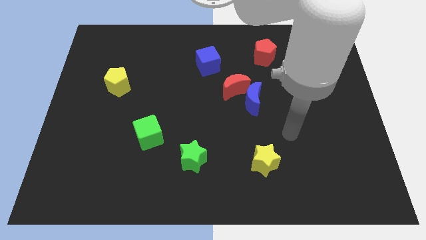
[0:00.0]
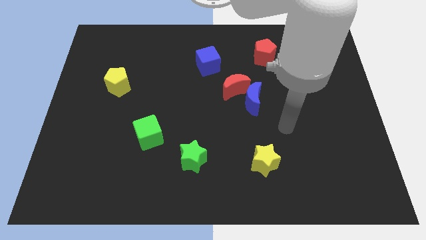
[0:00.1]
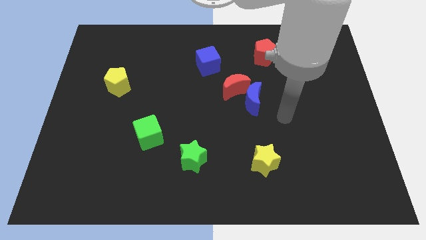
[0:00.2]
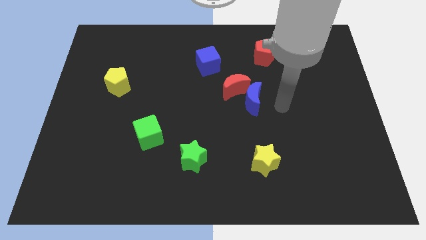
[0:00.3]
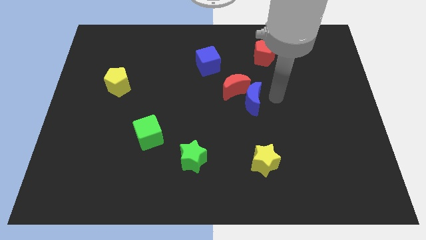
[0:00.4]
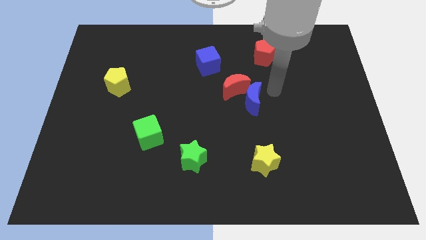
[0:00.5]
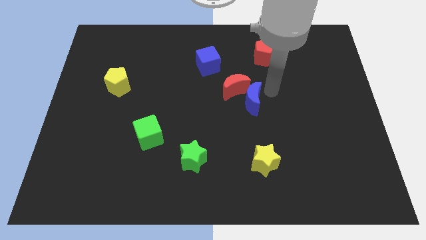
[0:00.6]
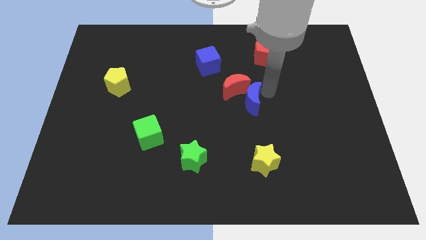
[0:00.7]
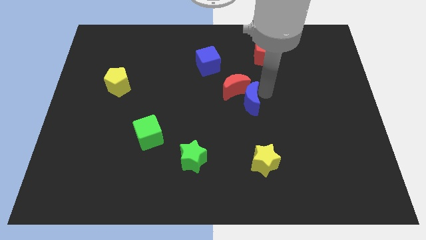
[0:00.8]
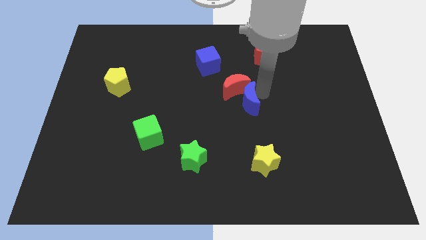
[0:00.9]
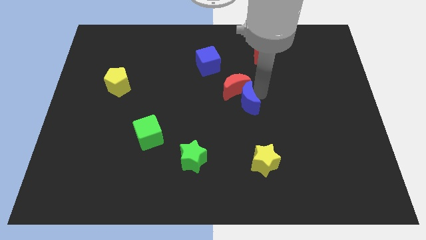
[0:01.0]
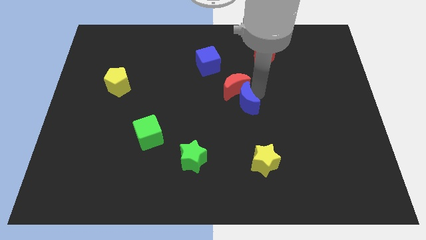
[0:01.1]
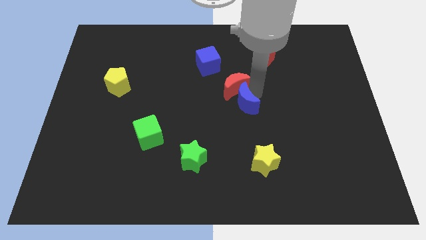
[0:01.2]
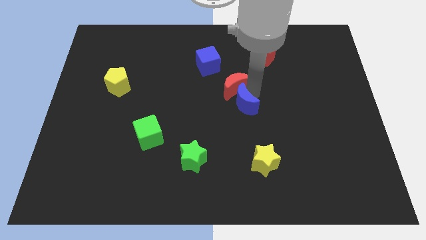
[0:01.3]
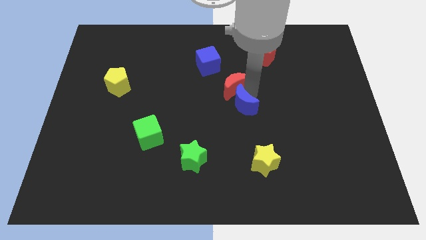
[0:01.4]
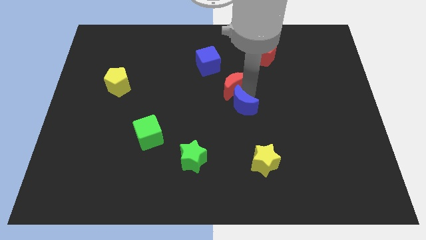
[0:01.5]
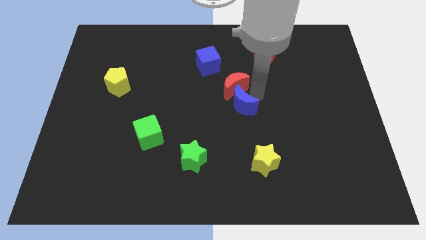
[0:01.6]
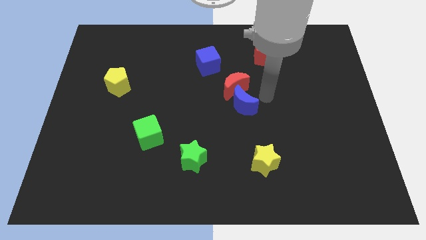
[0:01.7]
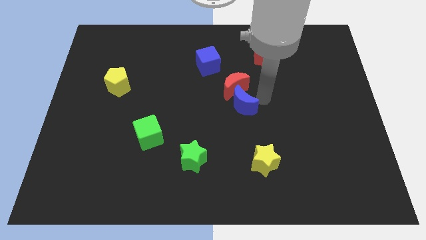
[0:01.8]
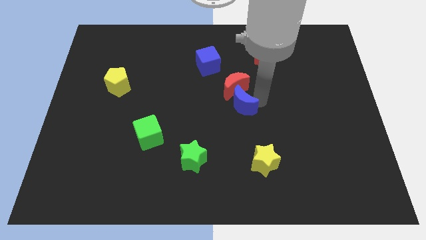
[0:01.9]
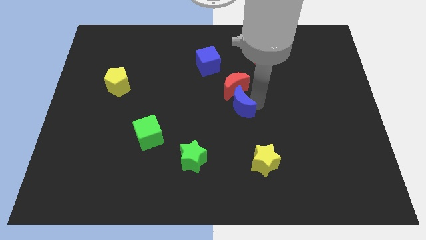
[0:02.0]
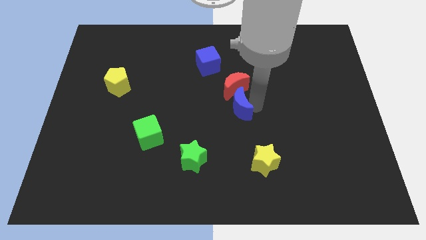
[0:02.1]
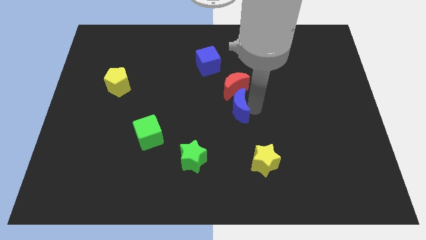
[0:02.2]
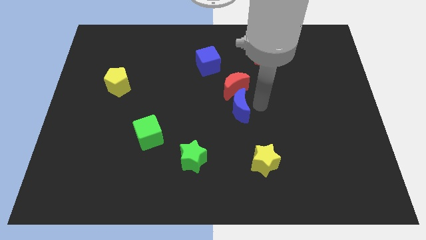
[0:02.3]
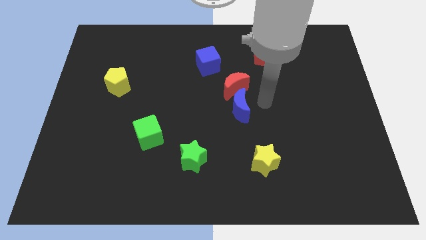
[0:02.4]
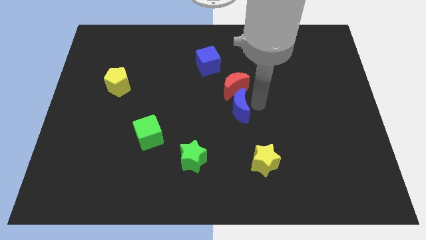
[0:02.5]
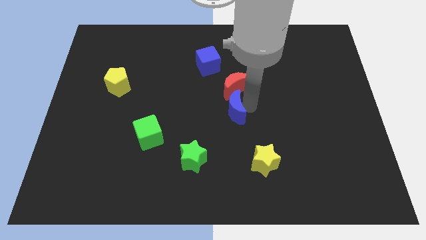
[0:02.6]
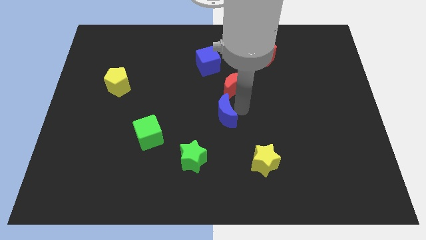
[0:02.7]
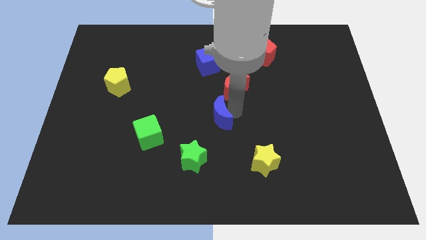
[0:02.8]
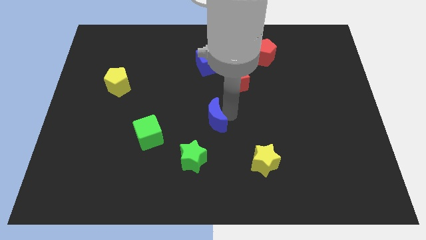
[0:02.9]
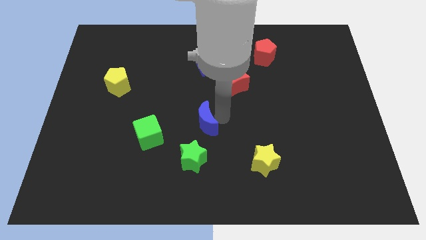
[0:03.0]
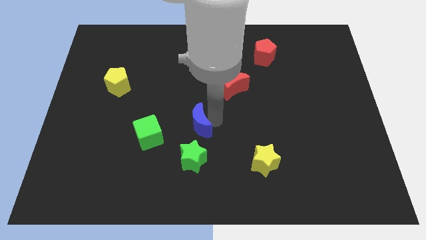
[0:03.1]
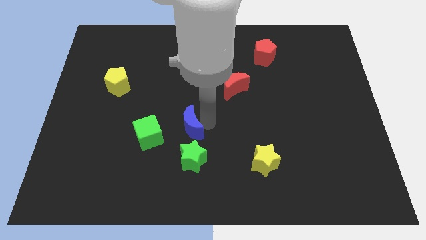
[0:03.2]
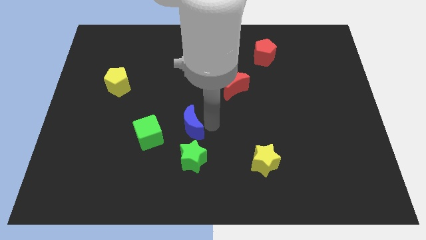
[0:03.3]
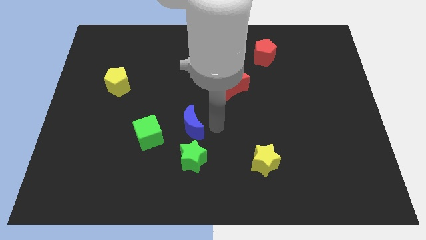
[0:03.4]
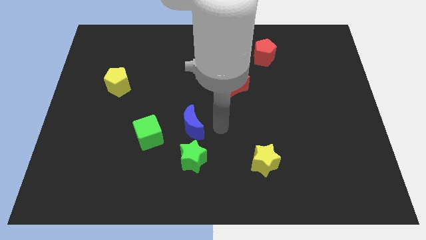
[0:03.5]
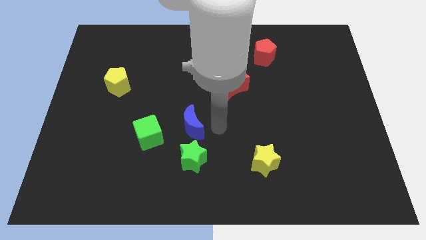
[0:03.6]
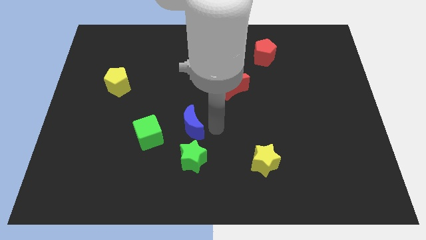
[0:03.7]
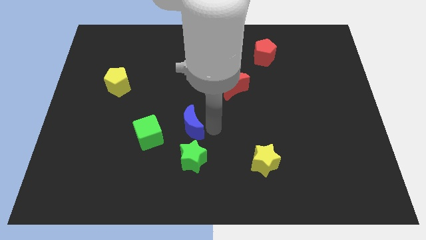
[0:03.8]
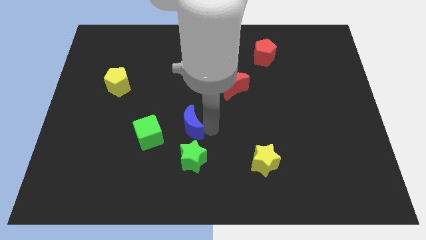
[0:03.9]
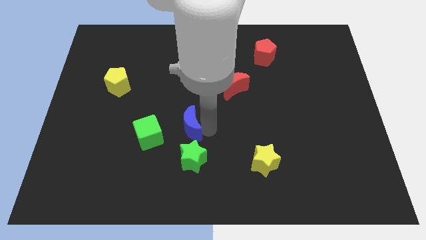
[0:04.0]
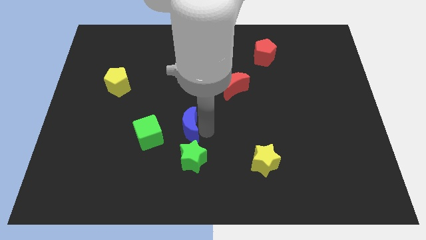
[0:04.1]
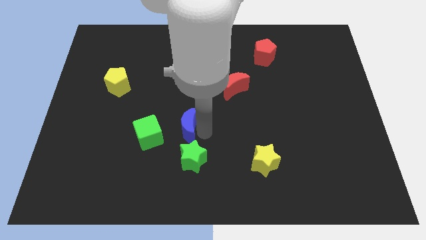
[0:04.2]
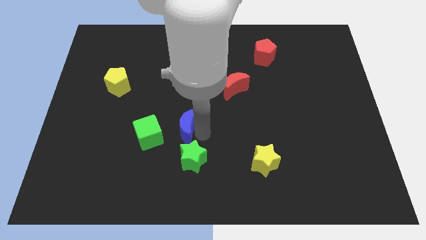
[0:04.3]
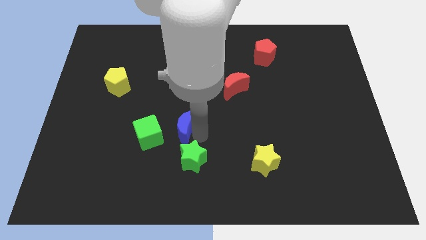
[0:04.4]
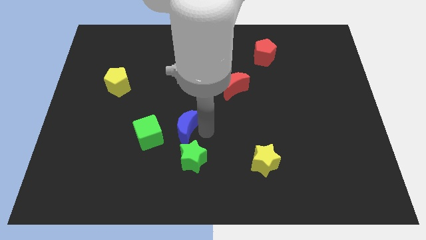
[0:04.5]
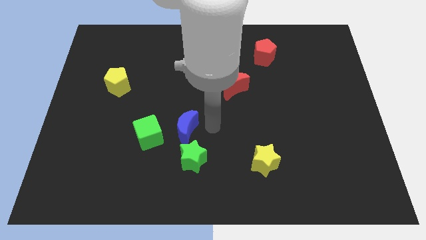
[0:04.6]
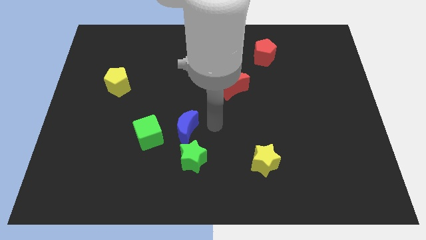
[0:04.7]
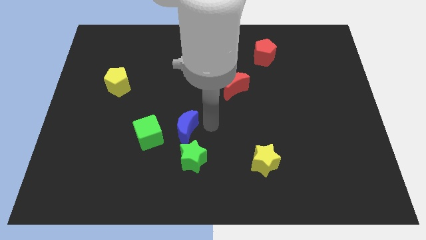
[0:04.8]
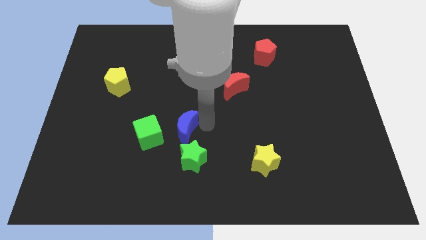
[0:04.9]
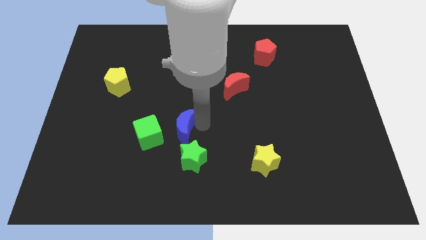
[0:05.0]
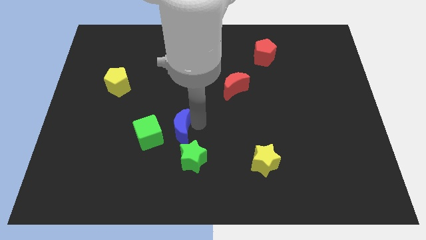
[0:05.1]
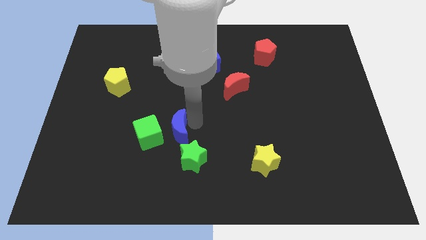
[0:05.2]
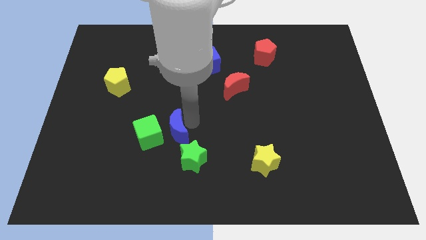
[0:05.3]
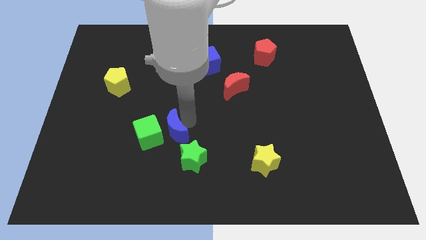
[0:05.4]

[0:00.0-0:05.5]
push the blue moon to the green cube

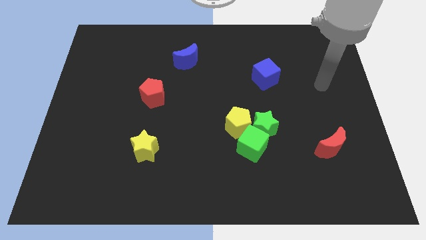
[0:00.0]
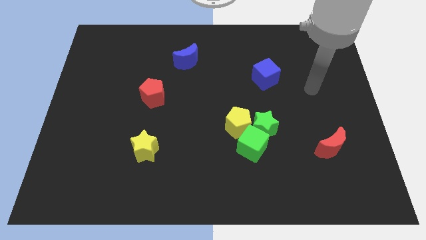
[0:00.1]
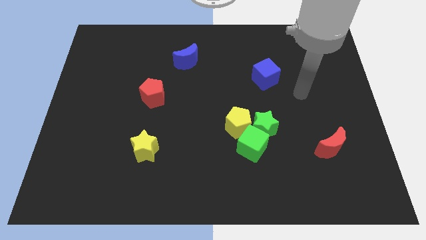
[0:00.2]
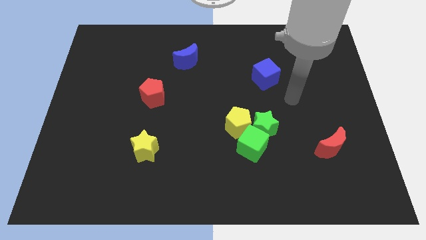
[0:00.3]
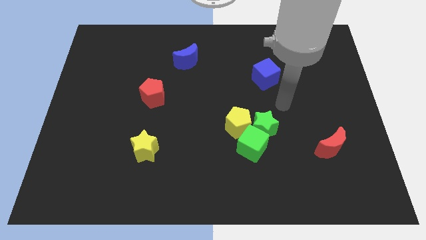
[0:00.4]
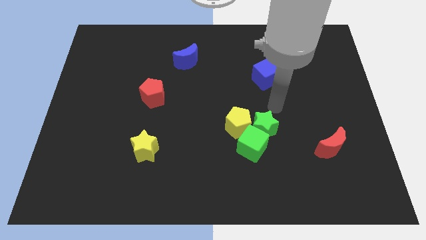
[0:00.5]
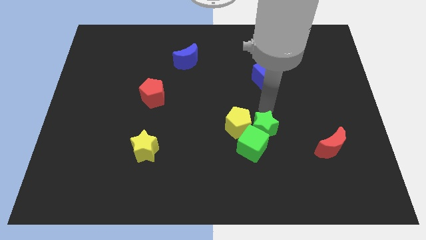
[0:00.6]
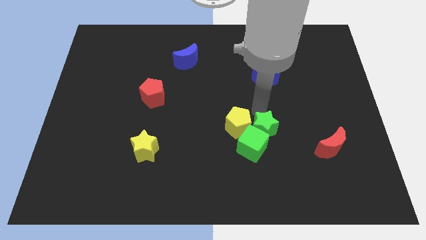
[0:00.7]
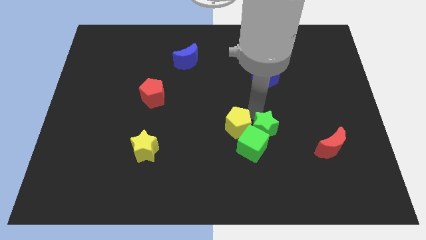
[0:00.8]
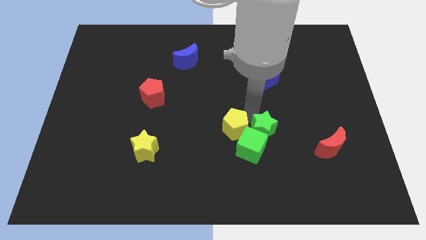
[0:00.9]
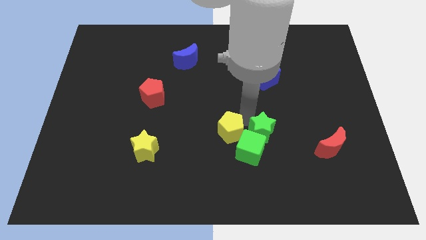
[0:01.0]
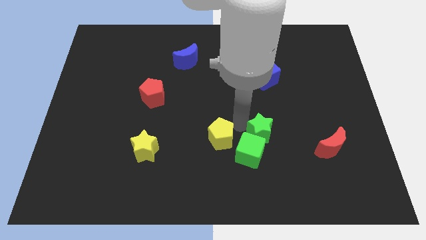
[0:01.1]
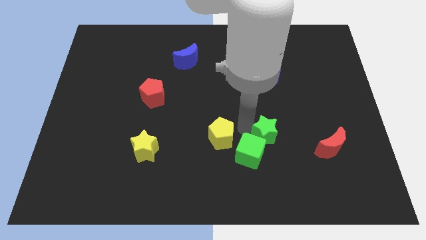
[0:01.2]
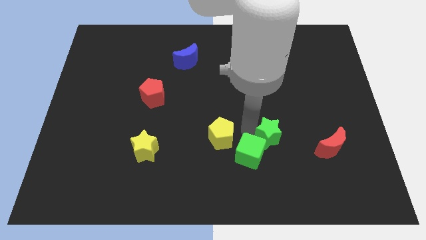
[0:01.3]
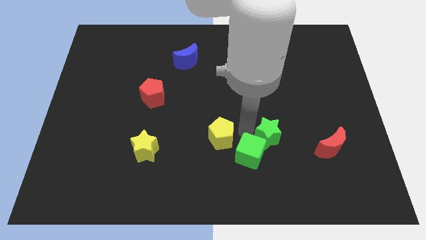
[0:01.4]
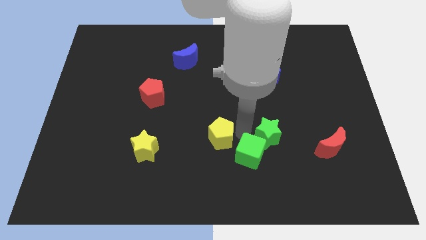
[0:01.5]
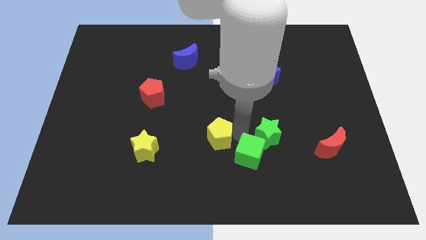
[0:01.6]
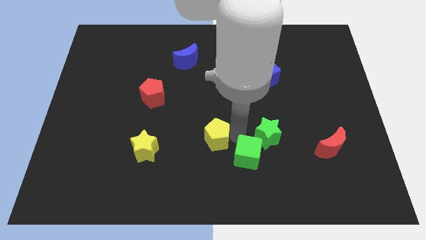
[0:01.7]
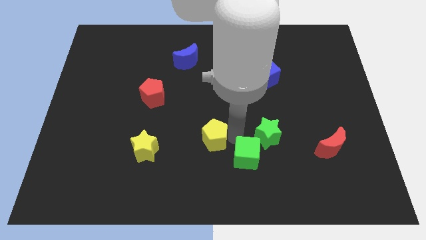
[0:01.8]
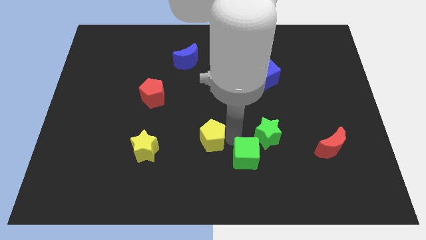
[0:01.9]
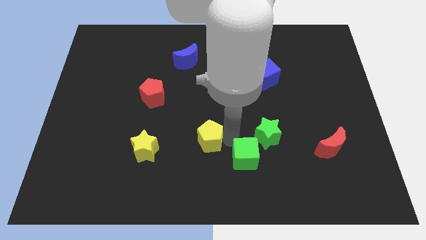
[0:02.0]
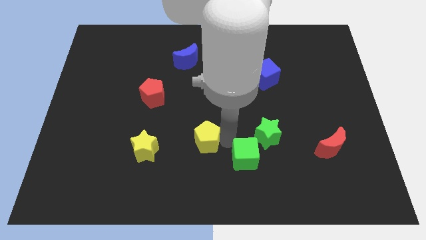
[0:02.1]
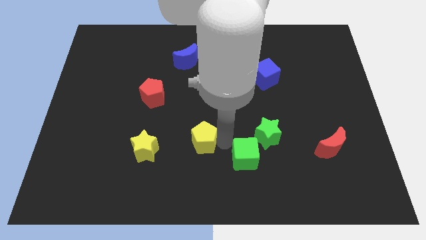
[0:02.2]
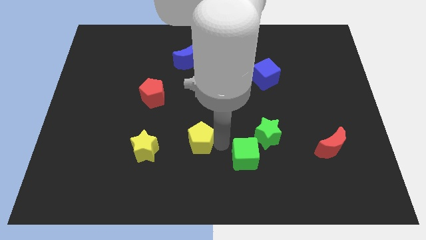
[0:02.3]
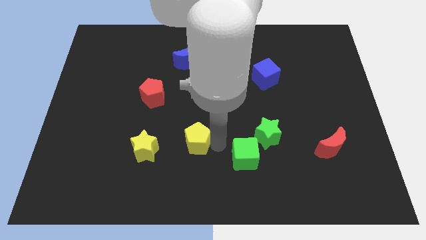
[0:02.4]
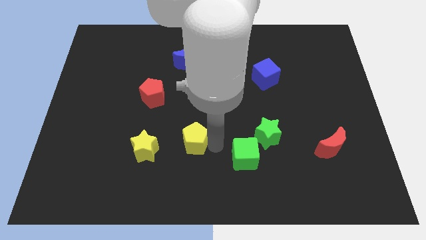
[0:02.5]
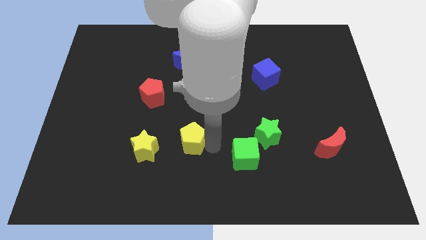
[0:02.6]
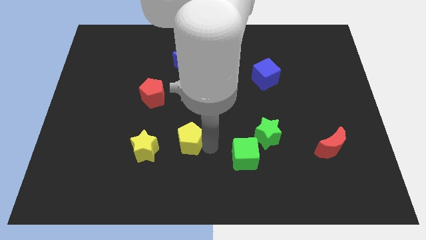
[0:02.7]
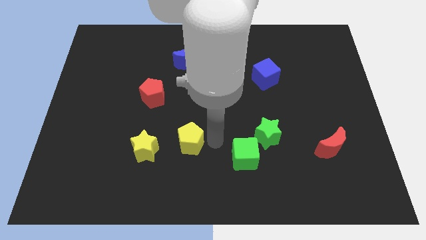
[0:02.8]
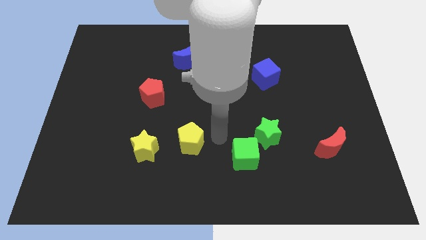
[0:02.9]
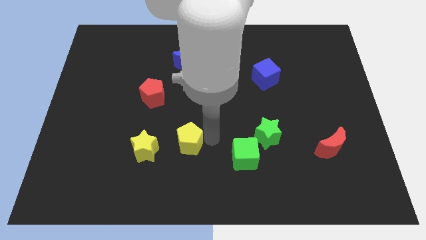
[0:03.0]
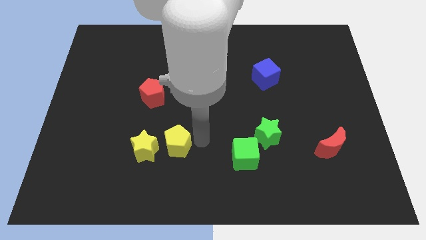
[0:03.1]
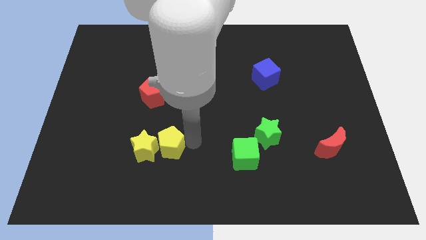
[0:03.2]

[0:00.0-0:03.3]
push the yellow pentagon next to the yellow star
